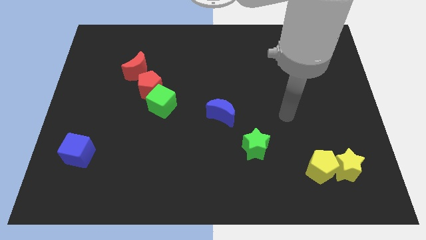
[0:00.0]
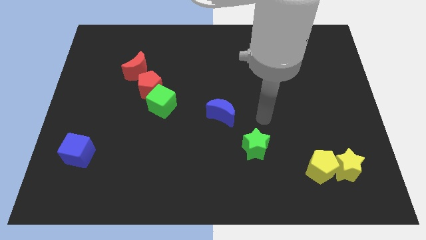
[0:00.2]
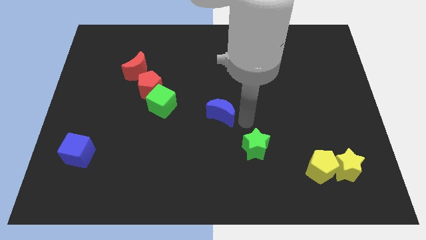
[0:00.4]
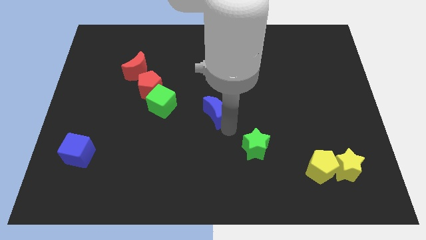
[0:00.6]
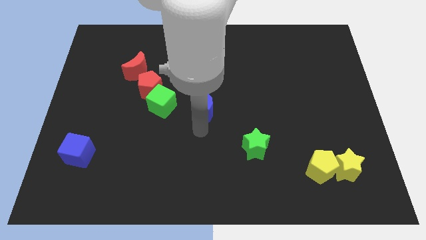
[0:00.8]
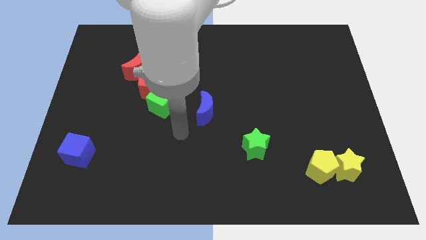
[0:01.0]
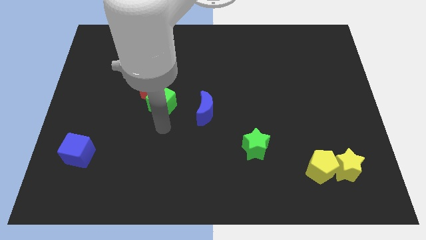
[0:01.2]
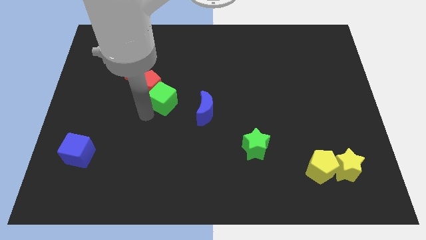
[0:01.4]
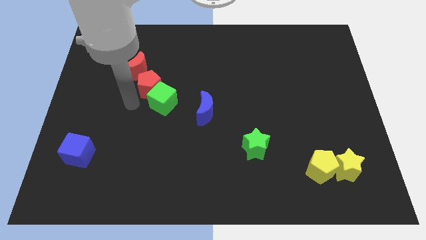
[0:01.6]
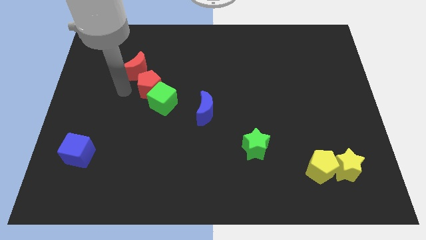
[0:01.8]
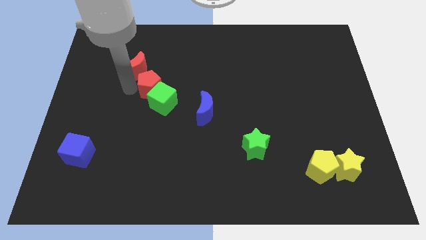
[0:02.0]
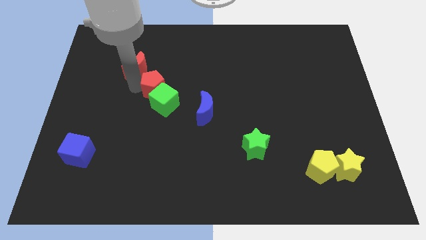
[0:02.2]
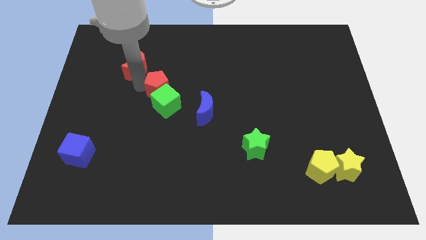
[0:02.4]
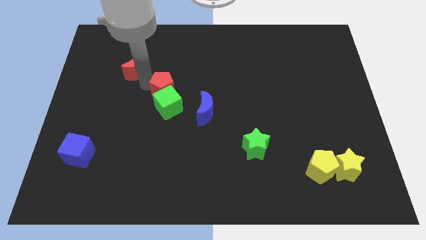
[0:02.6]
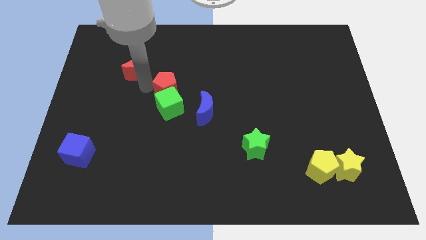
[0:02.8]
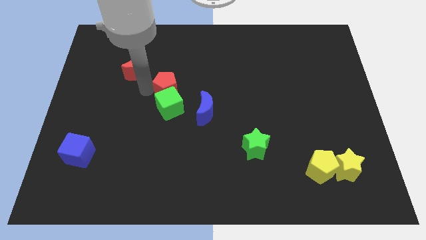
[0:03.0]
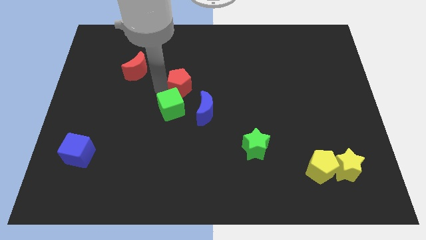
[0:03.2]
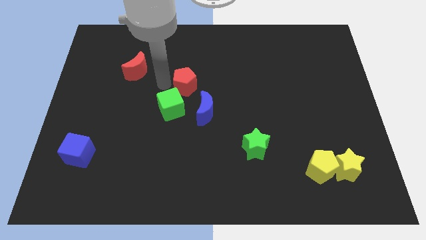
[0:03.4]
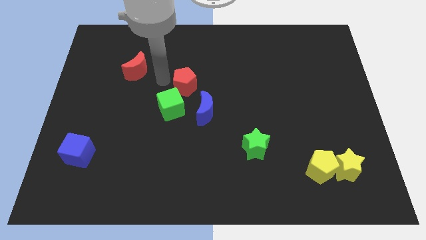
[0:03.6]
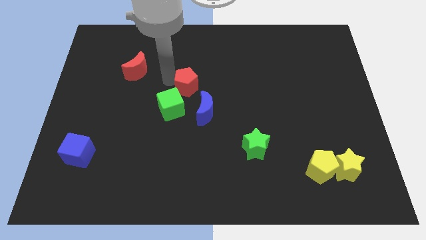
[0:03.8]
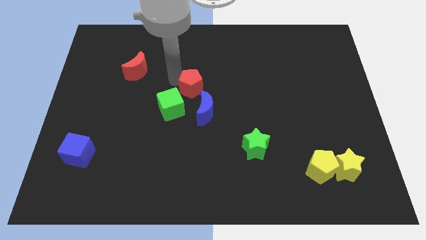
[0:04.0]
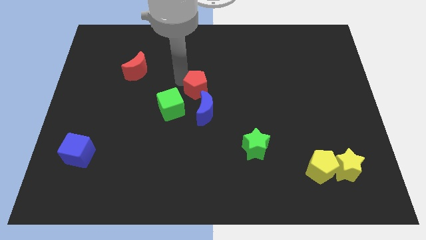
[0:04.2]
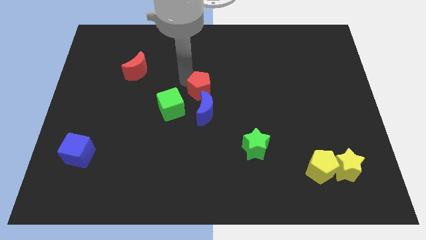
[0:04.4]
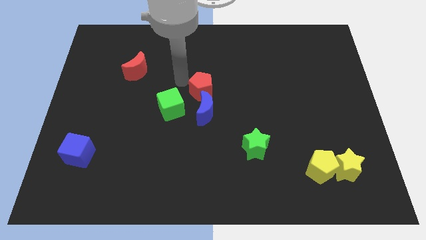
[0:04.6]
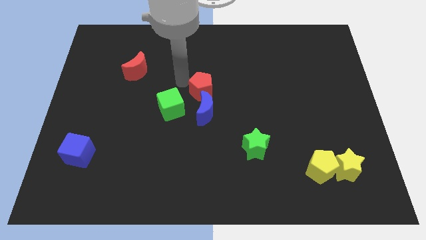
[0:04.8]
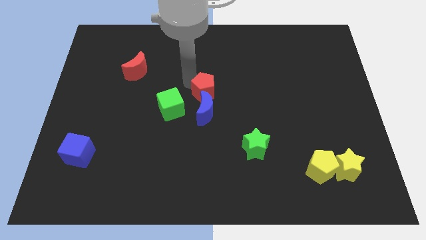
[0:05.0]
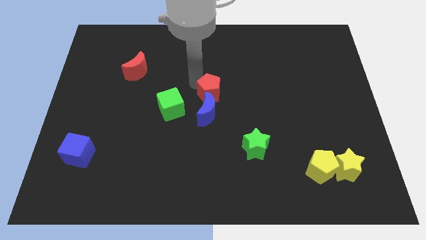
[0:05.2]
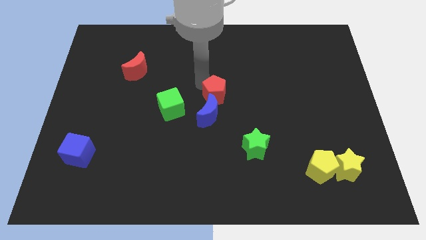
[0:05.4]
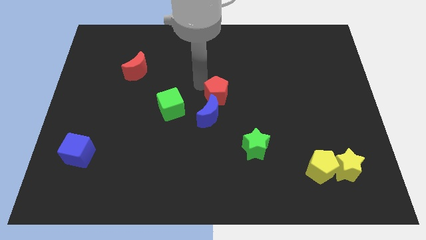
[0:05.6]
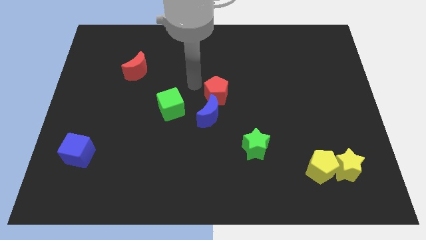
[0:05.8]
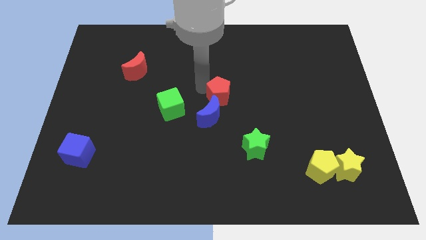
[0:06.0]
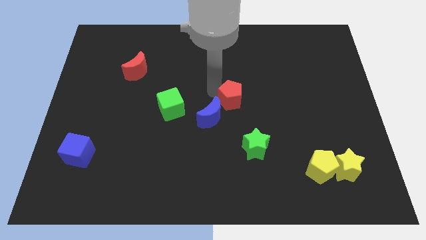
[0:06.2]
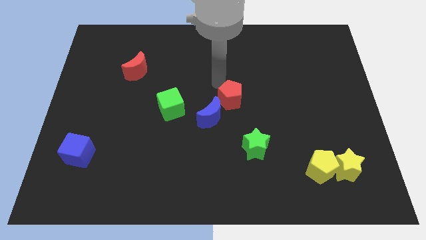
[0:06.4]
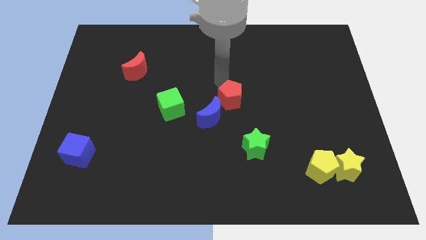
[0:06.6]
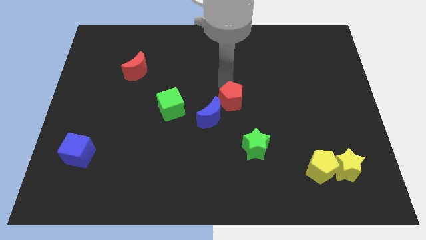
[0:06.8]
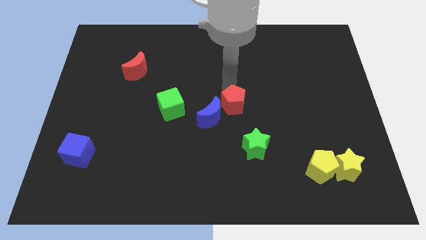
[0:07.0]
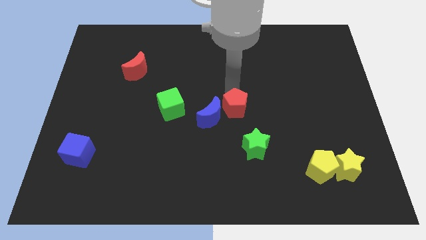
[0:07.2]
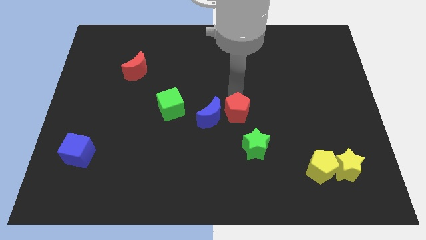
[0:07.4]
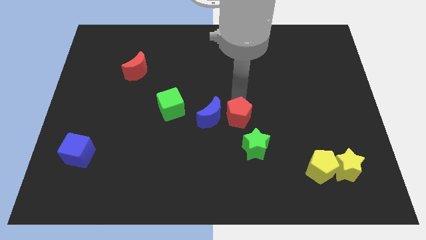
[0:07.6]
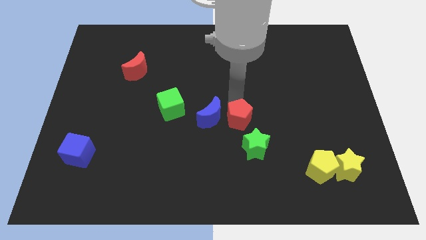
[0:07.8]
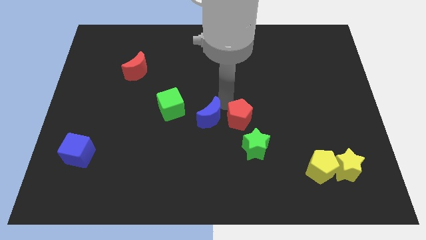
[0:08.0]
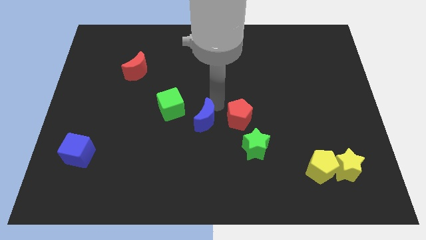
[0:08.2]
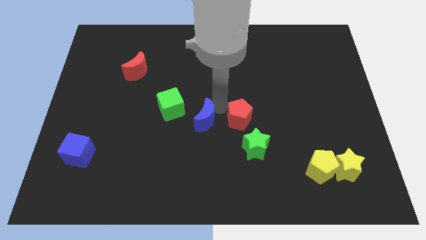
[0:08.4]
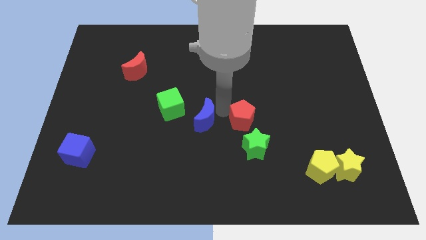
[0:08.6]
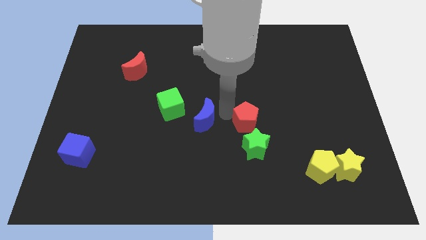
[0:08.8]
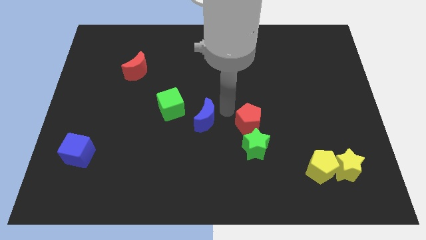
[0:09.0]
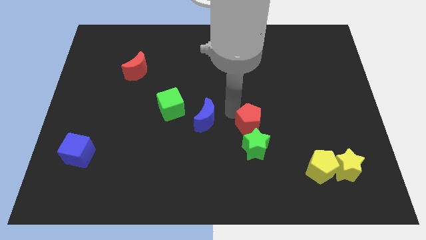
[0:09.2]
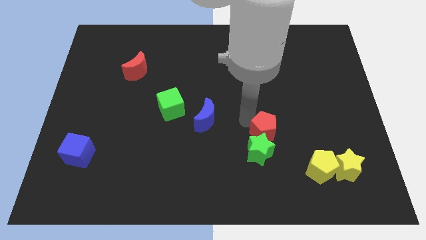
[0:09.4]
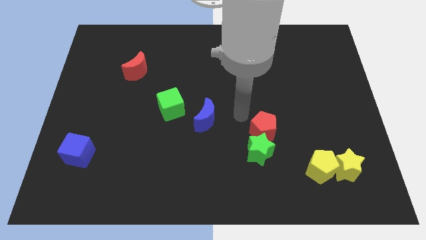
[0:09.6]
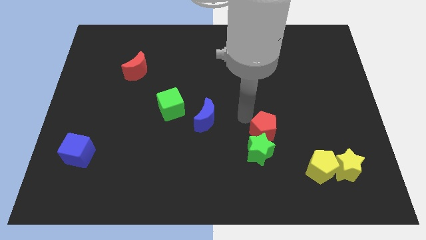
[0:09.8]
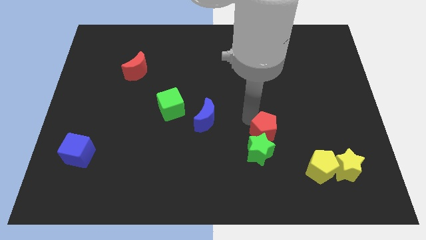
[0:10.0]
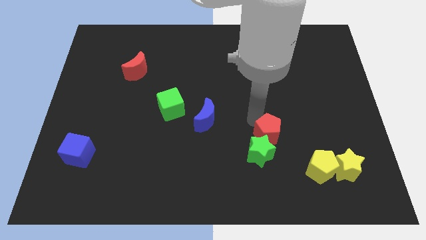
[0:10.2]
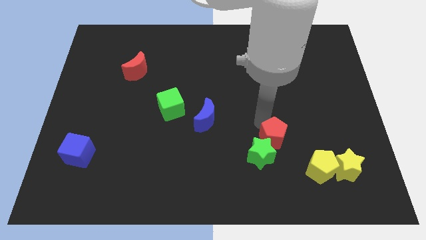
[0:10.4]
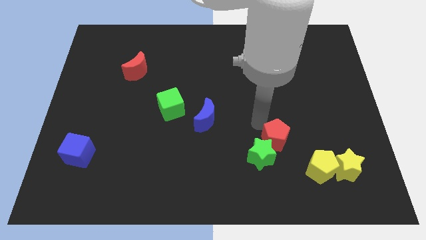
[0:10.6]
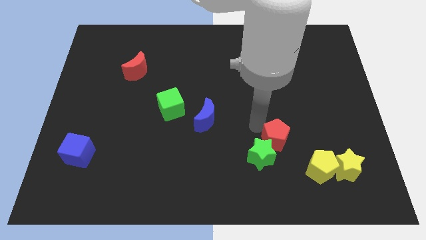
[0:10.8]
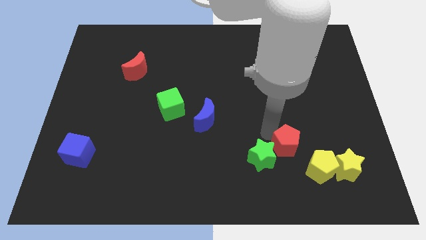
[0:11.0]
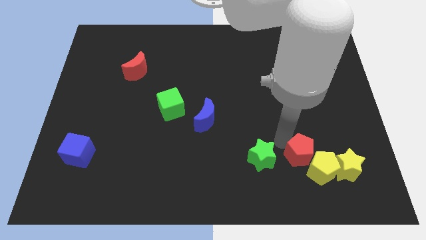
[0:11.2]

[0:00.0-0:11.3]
slide the red pentagon to the yellow pentagon

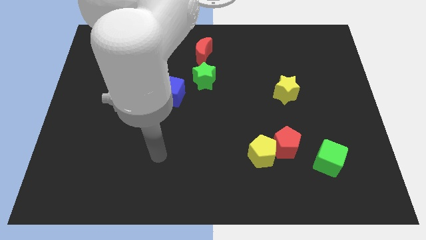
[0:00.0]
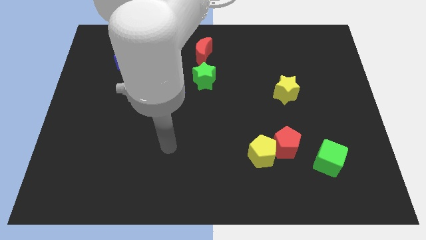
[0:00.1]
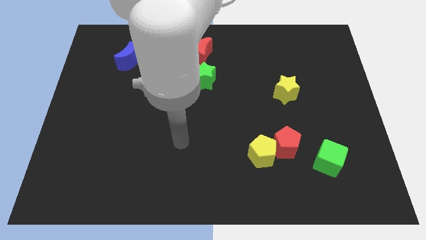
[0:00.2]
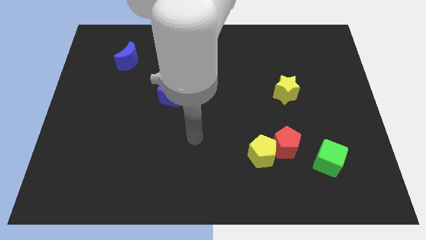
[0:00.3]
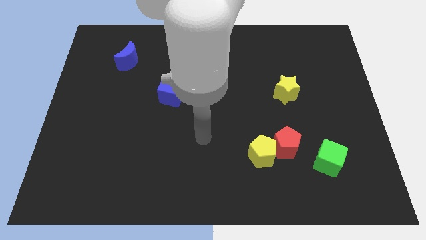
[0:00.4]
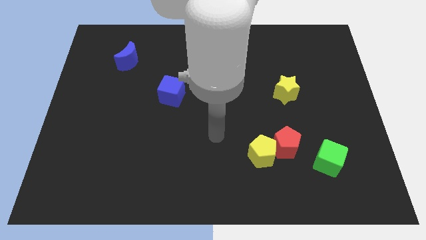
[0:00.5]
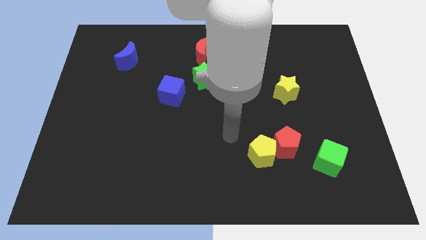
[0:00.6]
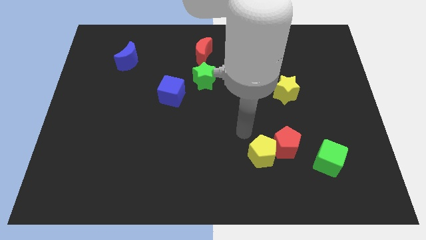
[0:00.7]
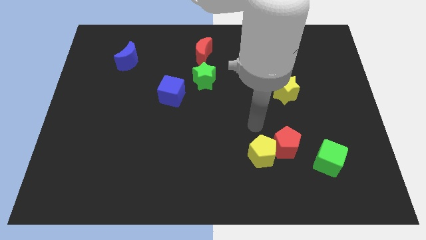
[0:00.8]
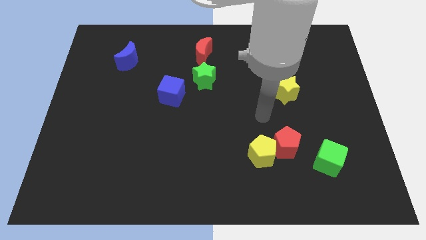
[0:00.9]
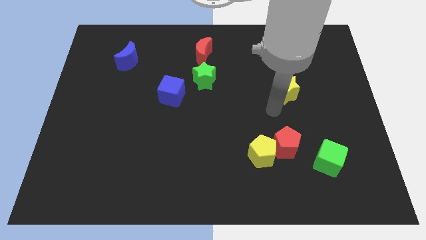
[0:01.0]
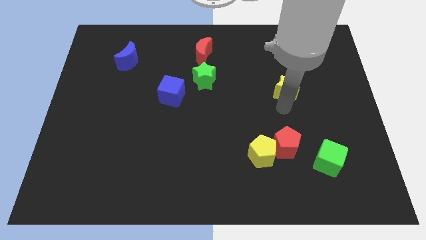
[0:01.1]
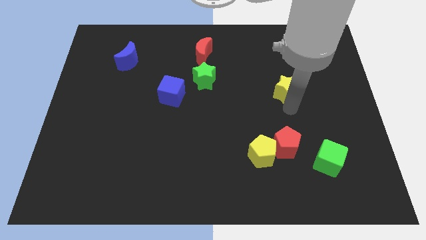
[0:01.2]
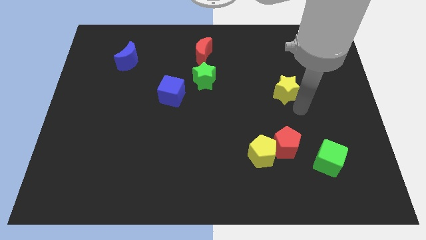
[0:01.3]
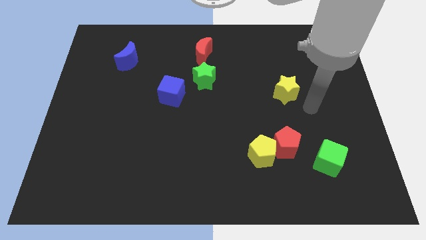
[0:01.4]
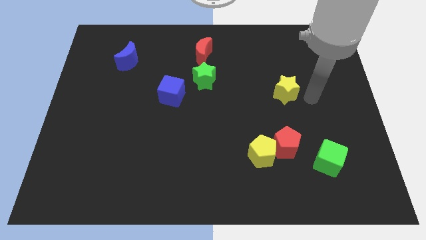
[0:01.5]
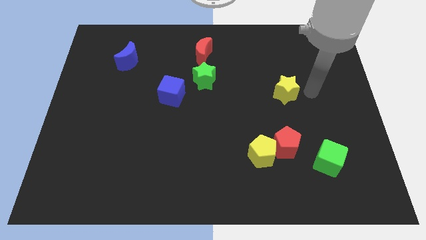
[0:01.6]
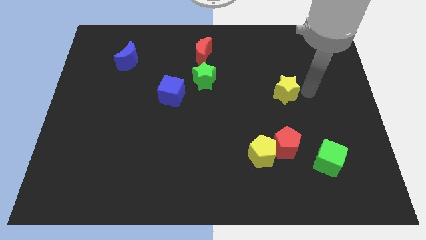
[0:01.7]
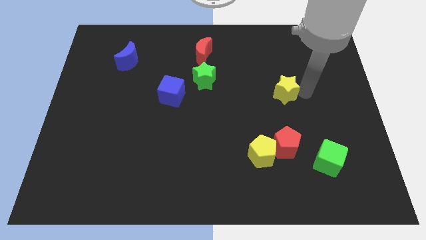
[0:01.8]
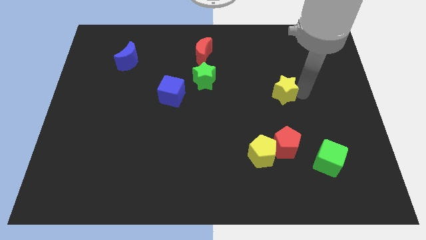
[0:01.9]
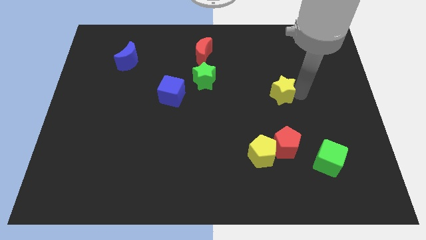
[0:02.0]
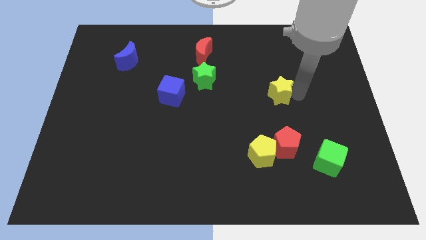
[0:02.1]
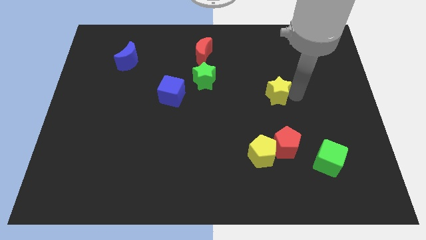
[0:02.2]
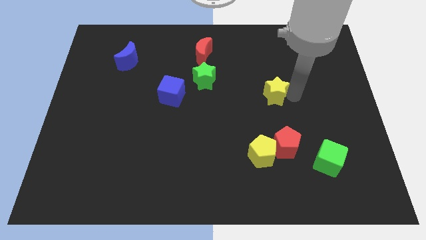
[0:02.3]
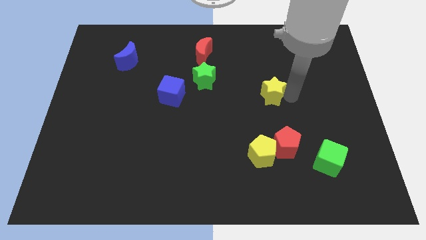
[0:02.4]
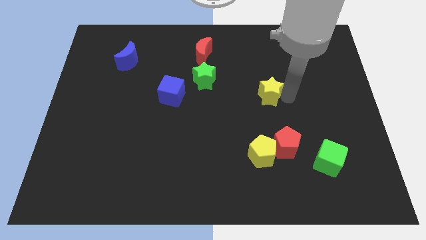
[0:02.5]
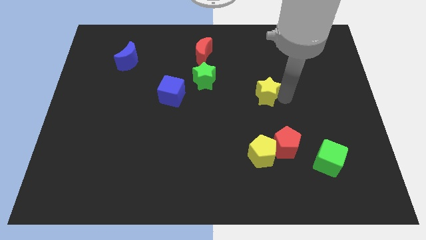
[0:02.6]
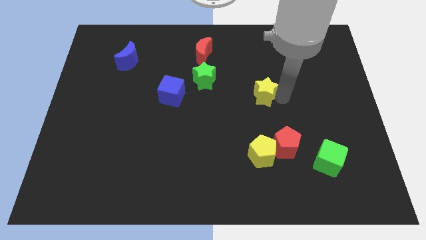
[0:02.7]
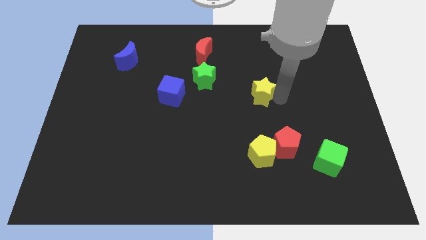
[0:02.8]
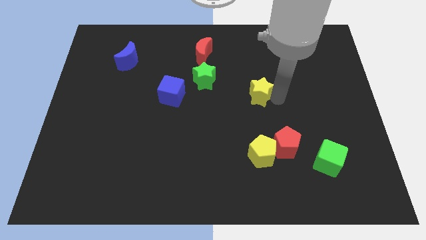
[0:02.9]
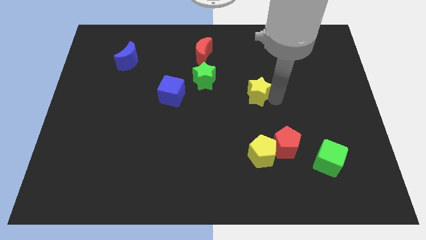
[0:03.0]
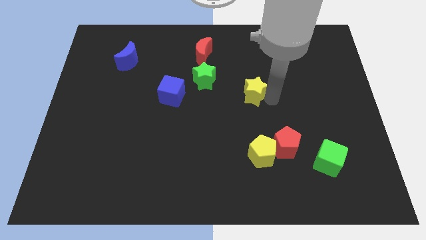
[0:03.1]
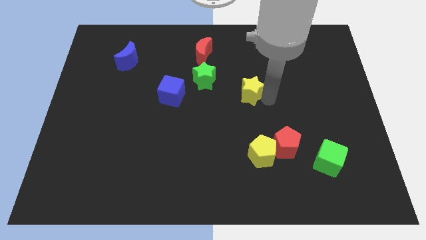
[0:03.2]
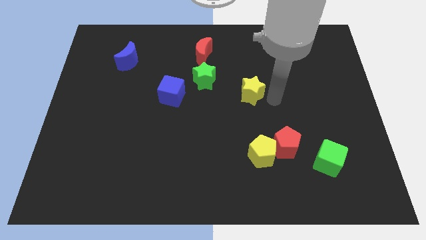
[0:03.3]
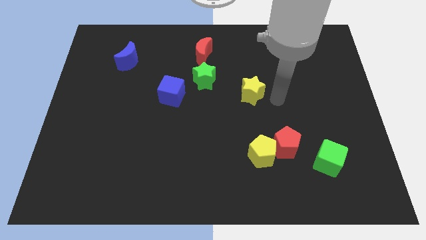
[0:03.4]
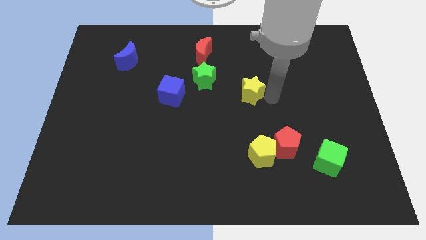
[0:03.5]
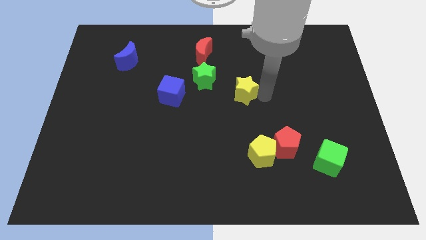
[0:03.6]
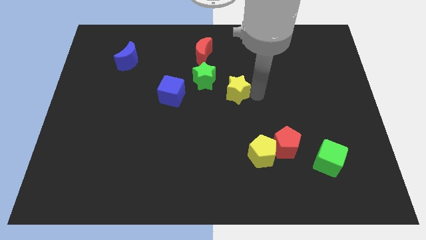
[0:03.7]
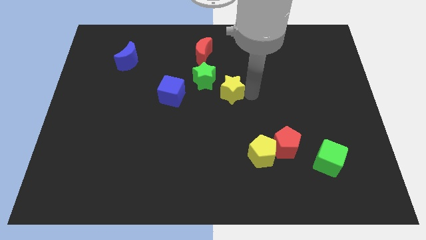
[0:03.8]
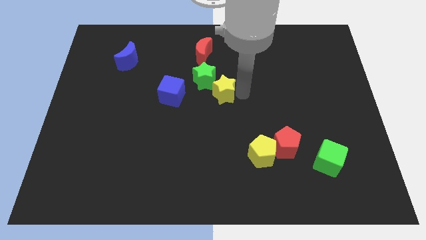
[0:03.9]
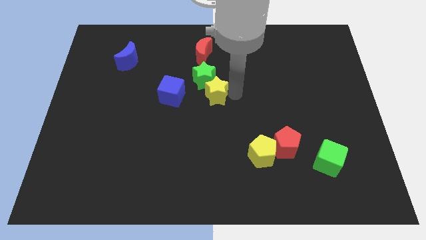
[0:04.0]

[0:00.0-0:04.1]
slide the yellow star to the green star
